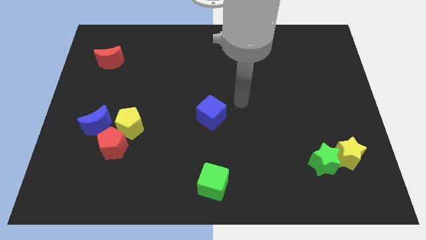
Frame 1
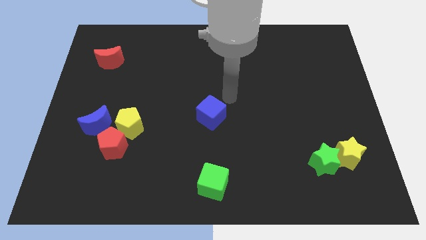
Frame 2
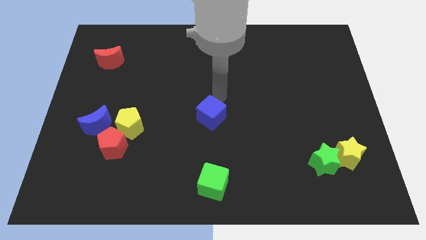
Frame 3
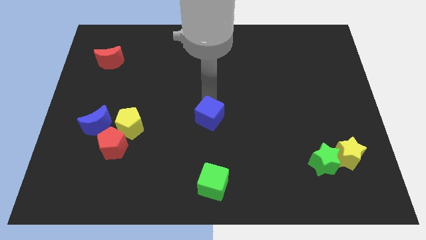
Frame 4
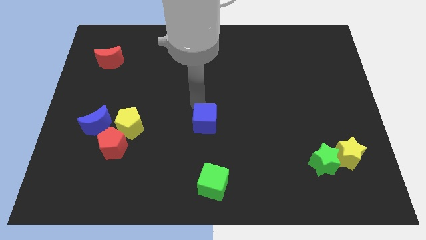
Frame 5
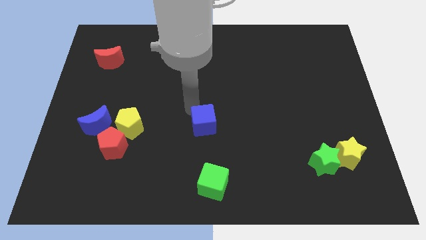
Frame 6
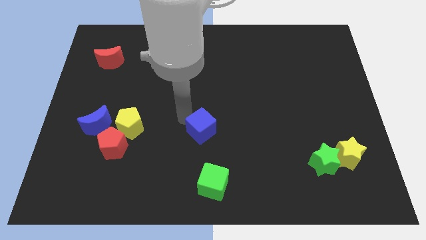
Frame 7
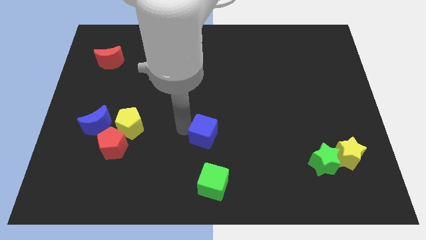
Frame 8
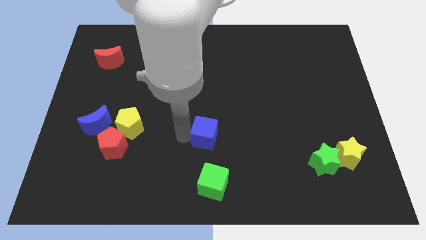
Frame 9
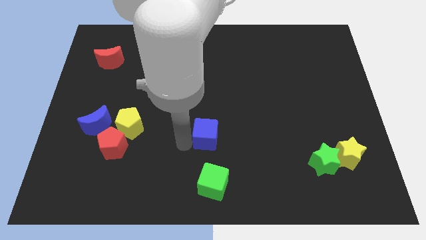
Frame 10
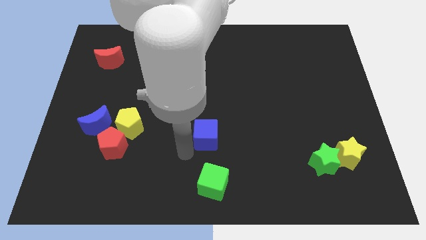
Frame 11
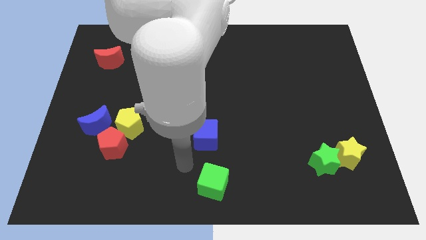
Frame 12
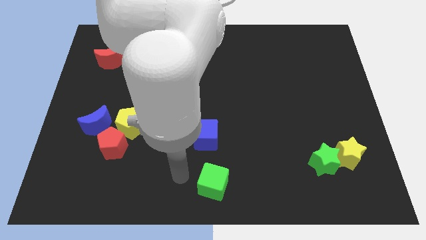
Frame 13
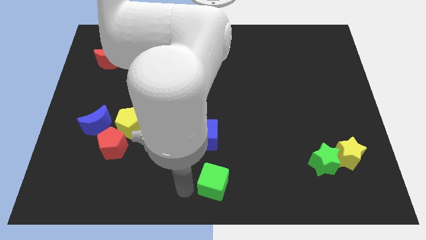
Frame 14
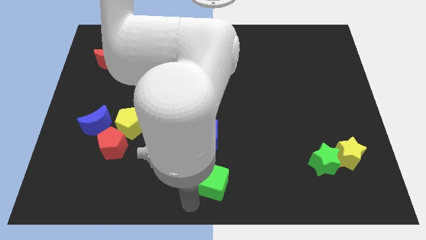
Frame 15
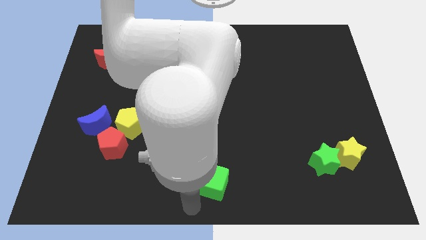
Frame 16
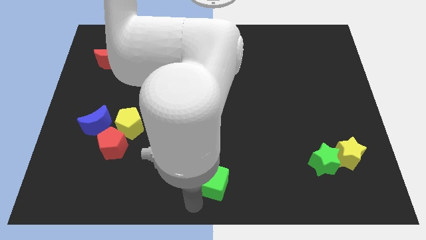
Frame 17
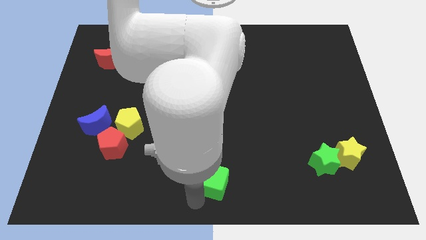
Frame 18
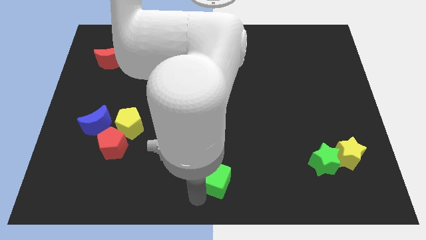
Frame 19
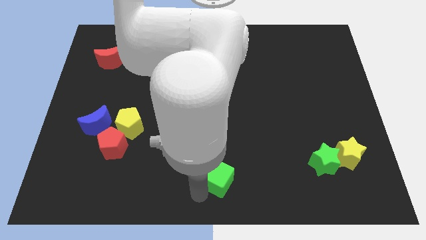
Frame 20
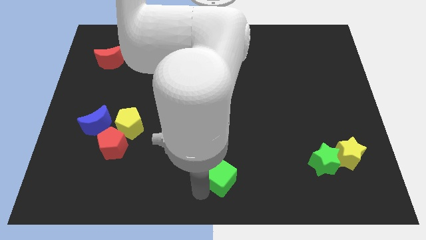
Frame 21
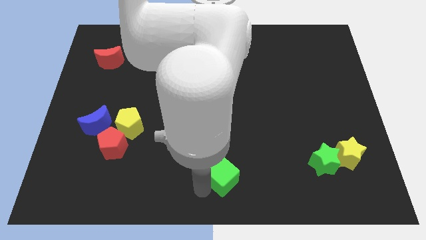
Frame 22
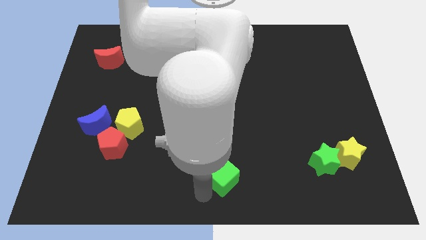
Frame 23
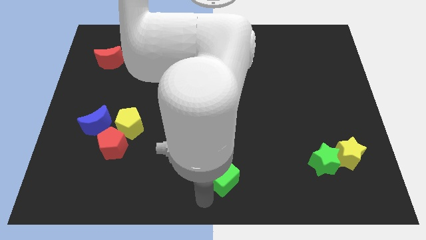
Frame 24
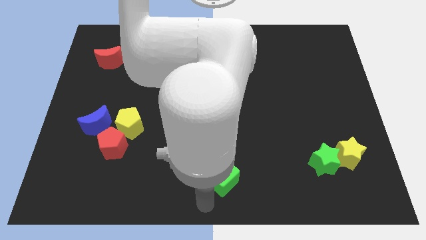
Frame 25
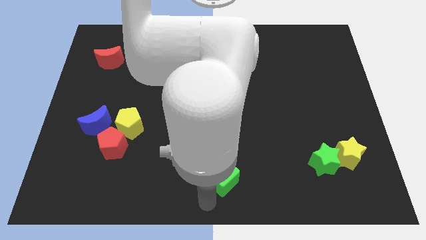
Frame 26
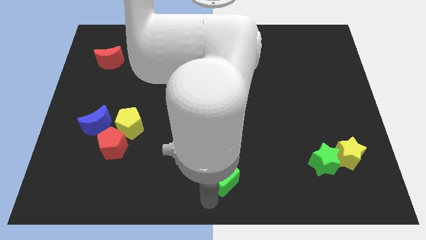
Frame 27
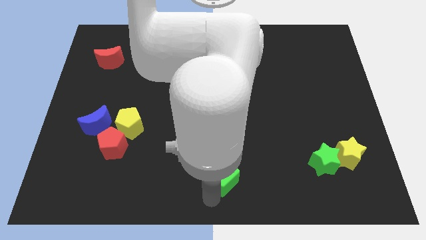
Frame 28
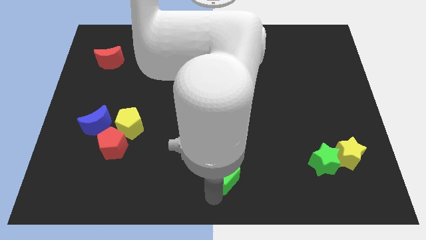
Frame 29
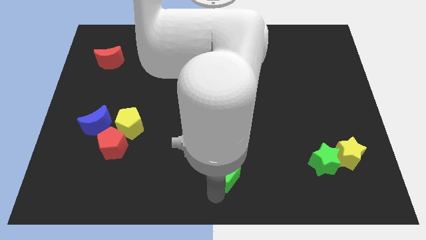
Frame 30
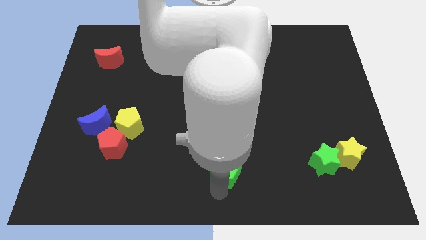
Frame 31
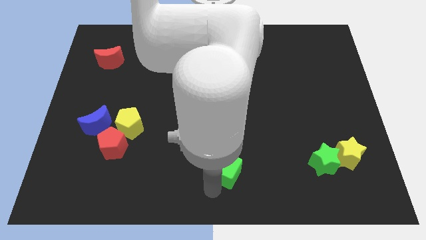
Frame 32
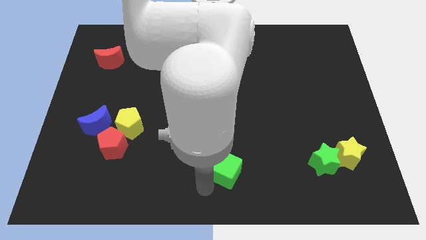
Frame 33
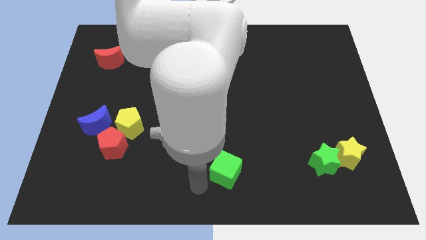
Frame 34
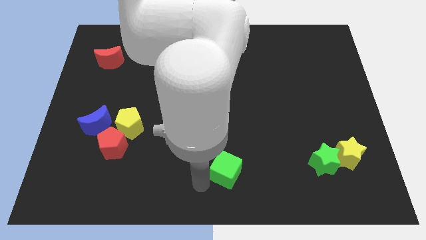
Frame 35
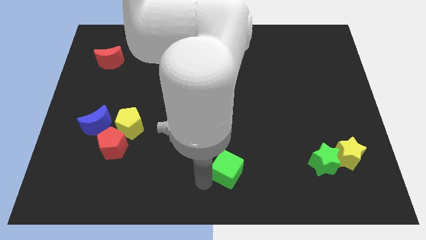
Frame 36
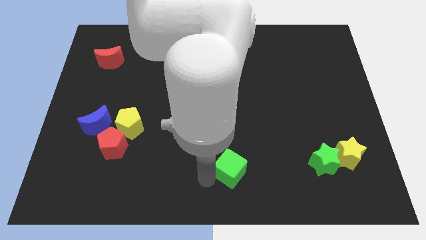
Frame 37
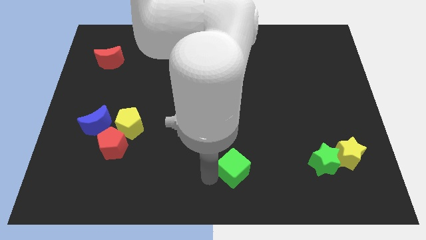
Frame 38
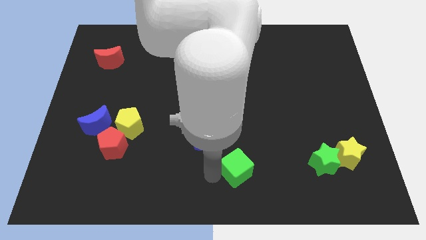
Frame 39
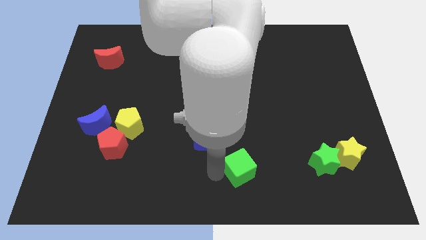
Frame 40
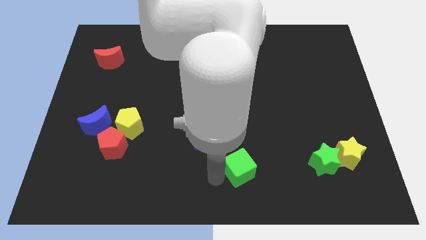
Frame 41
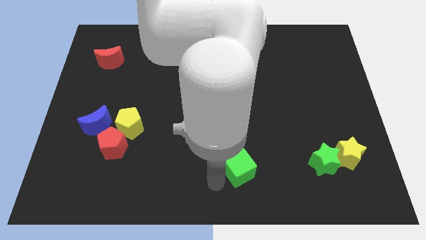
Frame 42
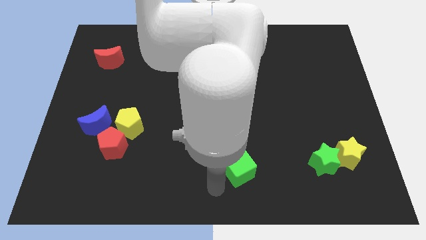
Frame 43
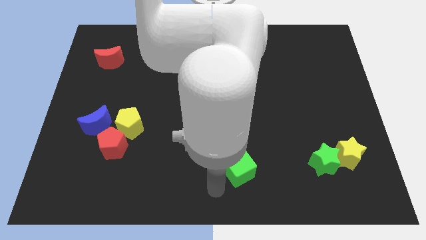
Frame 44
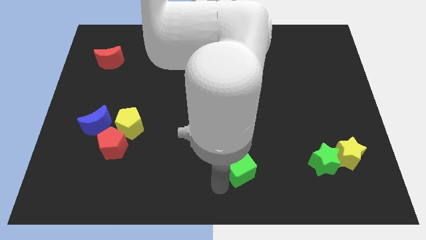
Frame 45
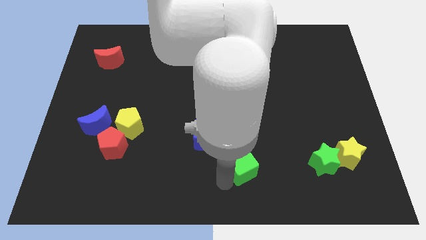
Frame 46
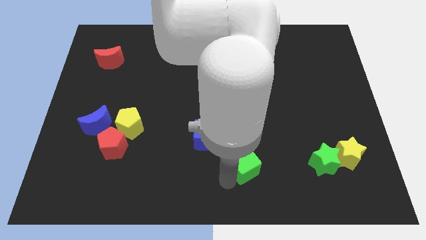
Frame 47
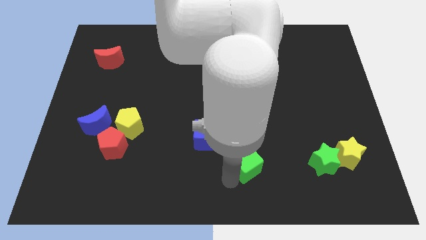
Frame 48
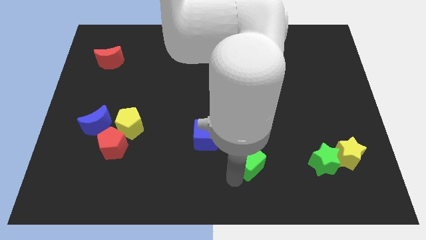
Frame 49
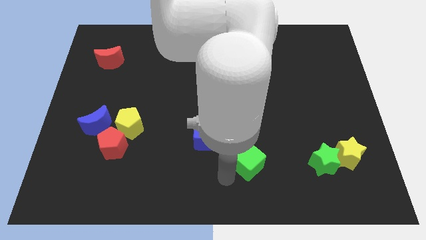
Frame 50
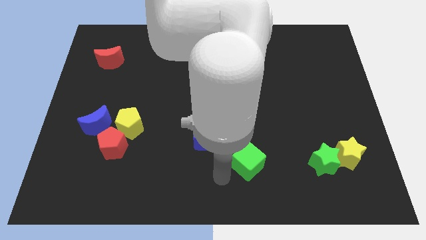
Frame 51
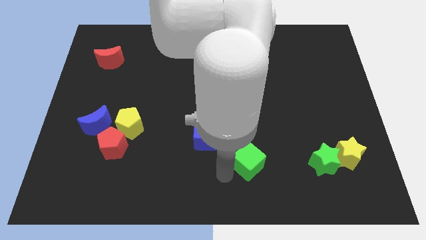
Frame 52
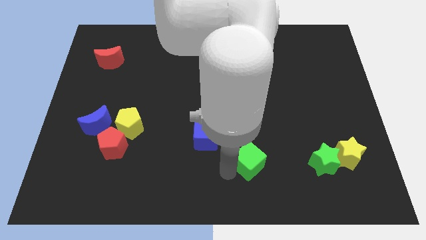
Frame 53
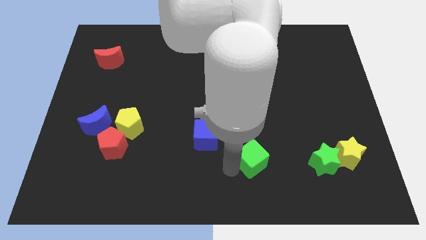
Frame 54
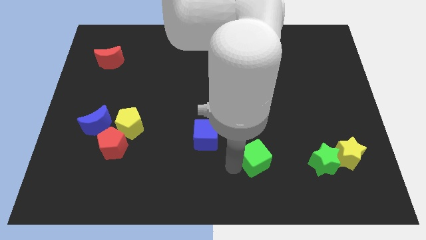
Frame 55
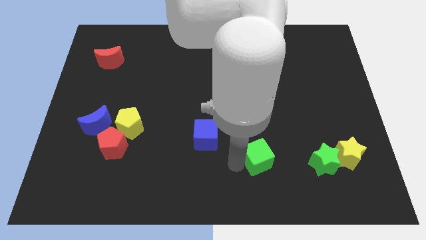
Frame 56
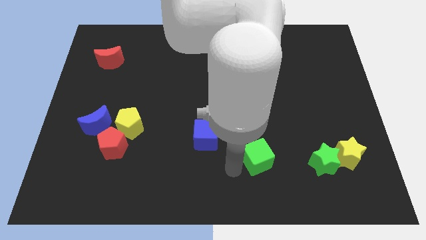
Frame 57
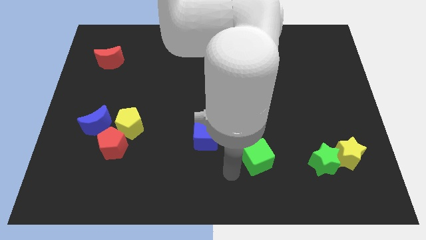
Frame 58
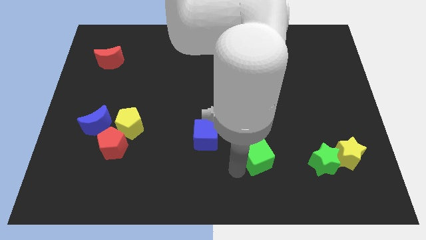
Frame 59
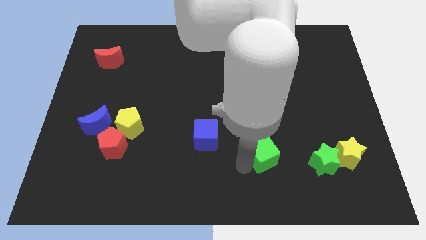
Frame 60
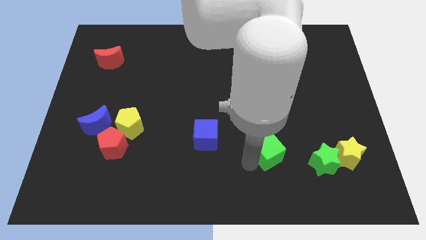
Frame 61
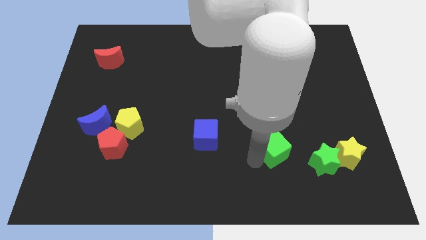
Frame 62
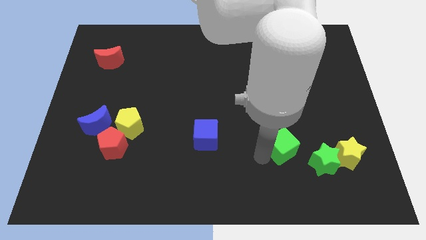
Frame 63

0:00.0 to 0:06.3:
put the green cube to the top left of the green star
